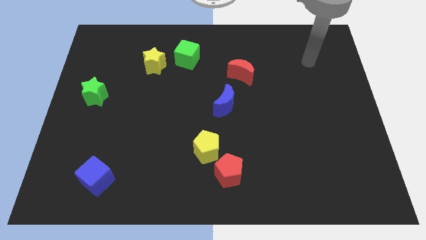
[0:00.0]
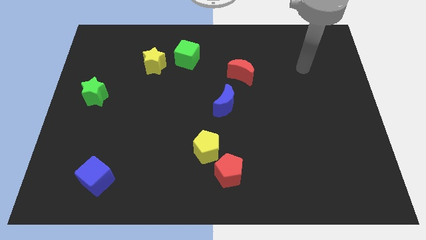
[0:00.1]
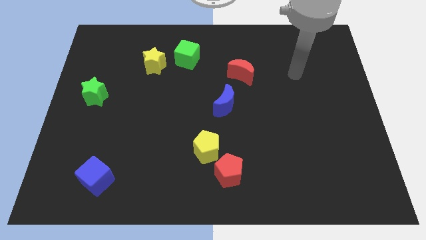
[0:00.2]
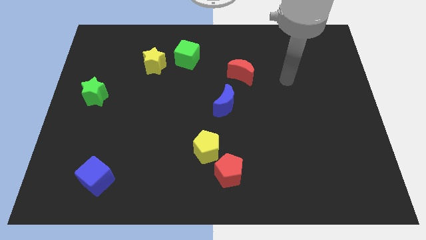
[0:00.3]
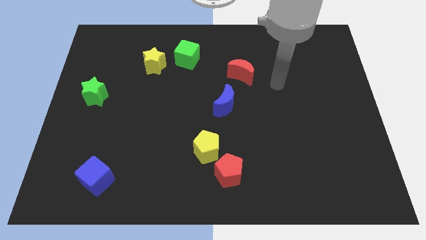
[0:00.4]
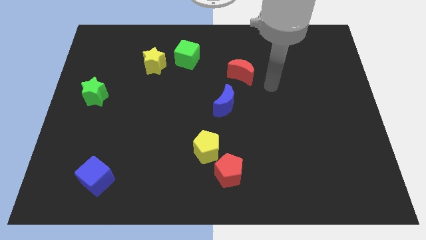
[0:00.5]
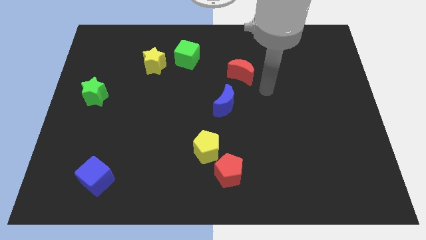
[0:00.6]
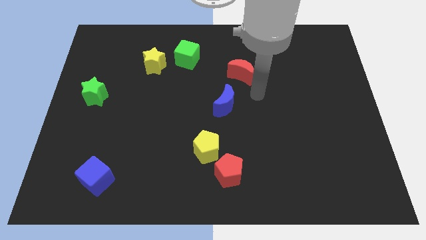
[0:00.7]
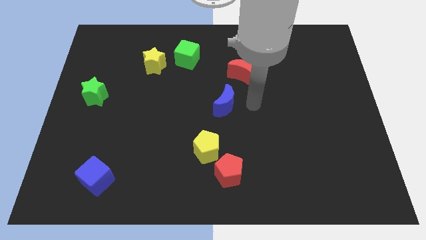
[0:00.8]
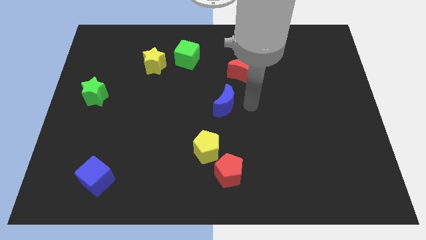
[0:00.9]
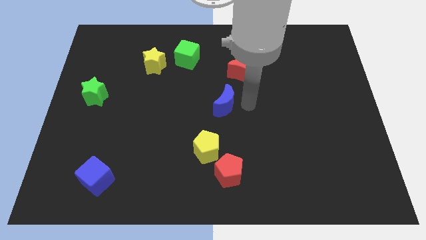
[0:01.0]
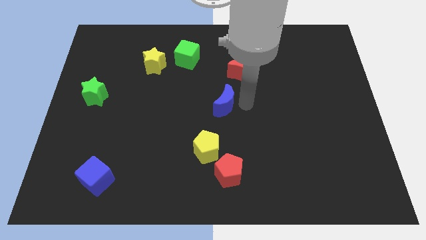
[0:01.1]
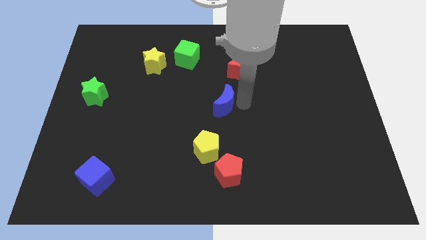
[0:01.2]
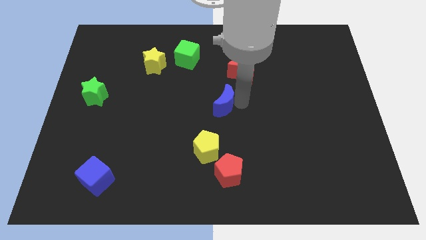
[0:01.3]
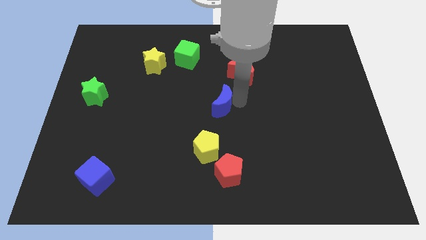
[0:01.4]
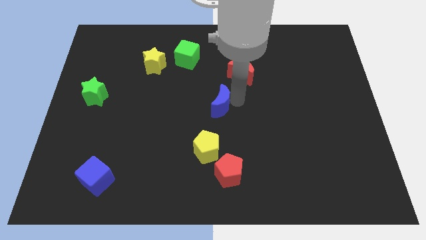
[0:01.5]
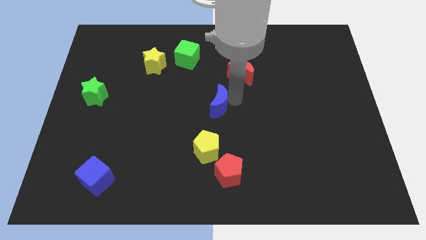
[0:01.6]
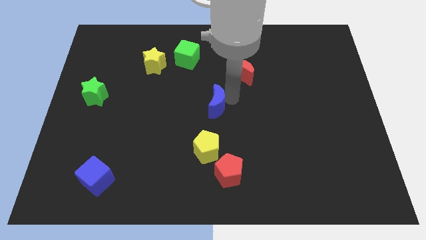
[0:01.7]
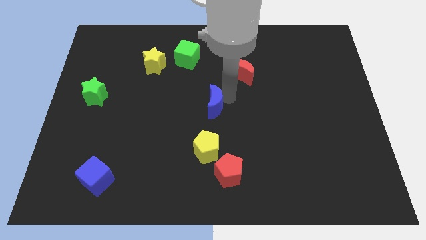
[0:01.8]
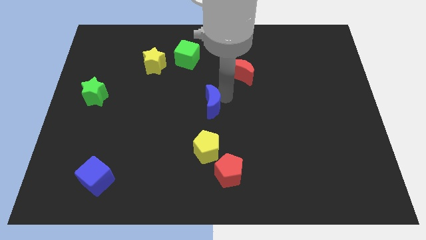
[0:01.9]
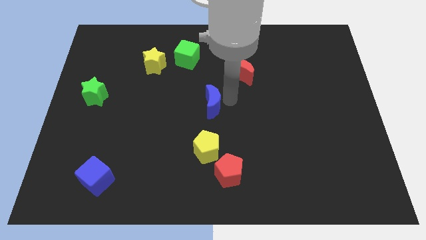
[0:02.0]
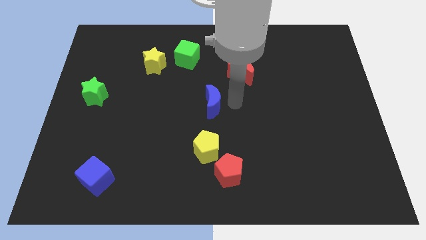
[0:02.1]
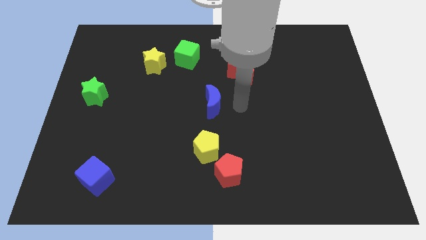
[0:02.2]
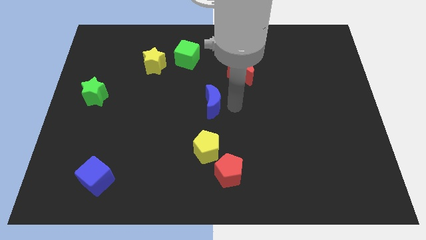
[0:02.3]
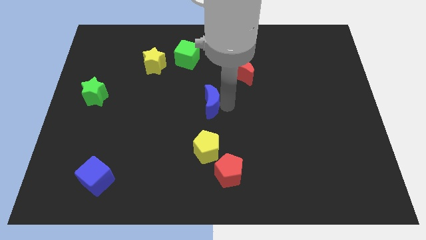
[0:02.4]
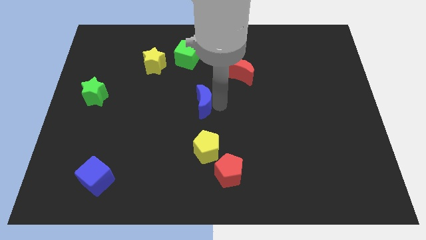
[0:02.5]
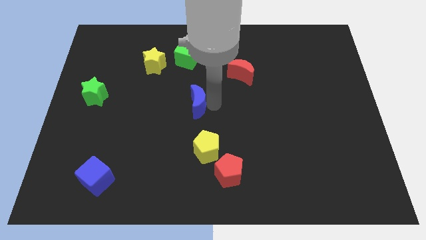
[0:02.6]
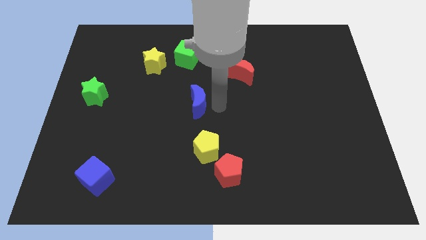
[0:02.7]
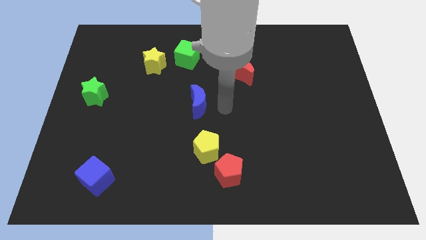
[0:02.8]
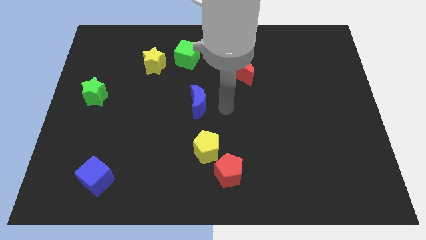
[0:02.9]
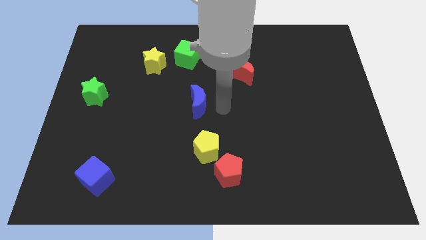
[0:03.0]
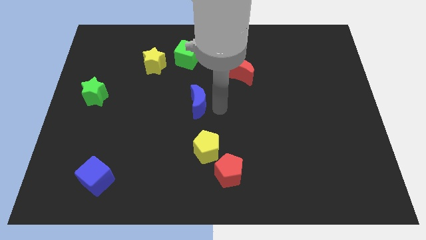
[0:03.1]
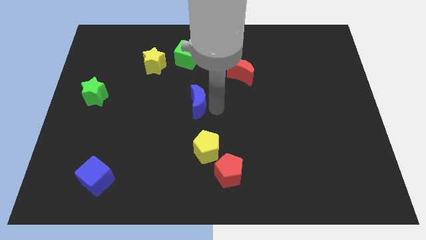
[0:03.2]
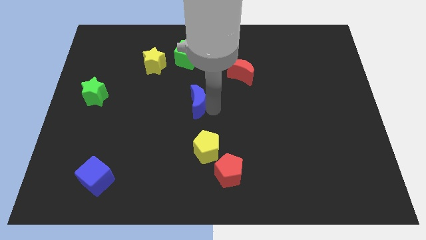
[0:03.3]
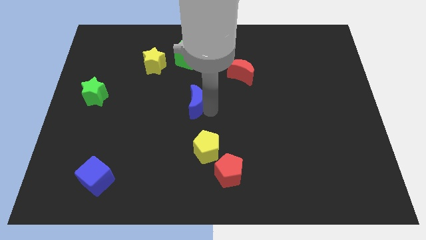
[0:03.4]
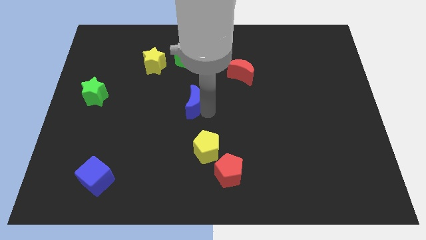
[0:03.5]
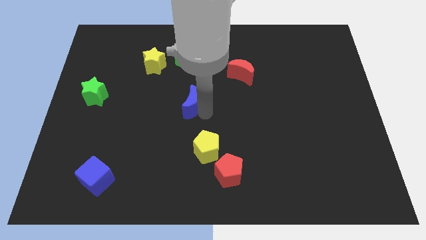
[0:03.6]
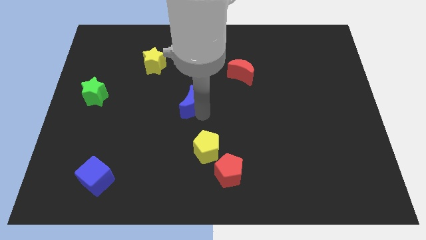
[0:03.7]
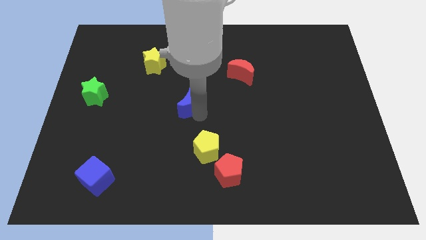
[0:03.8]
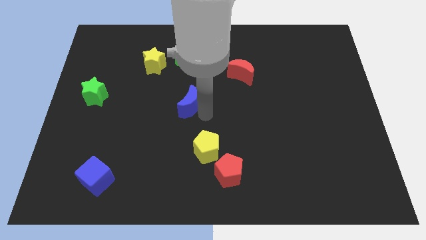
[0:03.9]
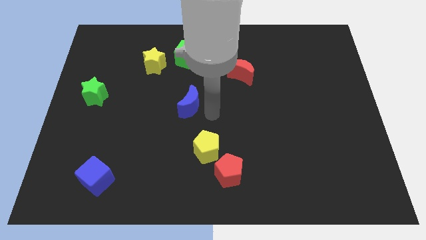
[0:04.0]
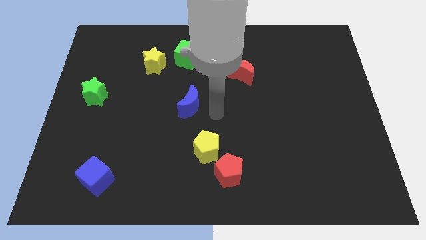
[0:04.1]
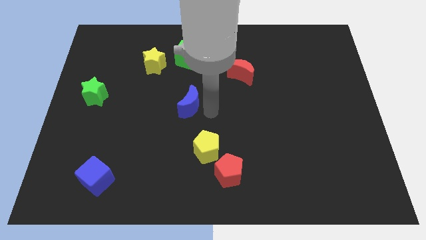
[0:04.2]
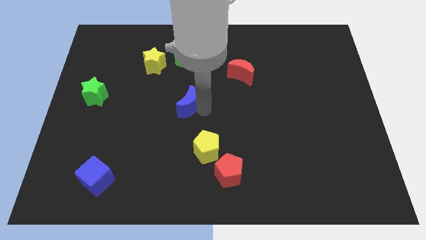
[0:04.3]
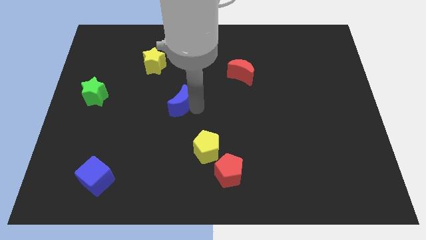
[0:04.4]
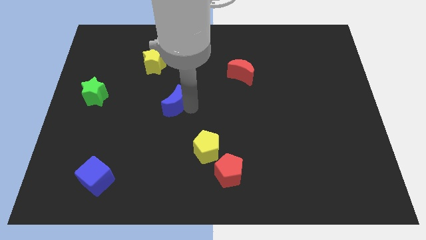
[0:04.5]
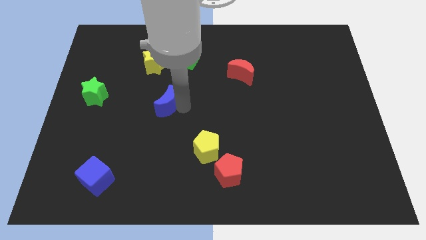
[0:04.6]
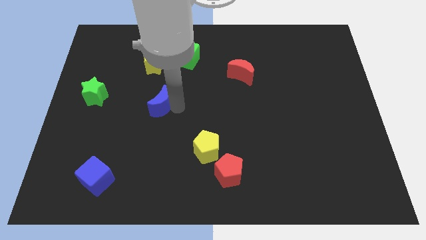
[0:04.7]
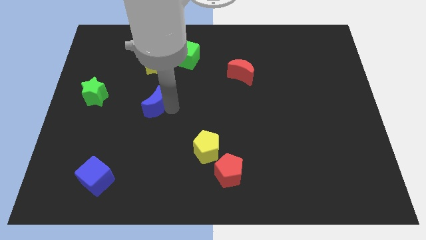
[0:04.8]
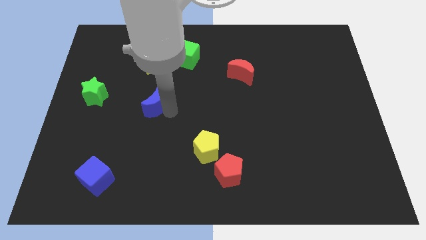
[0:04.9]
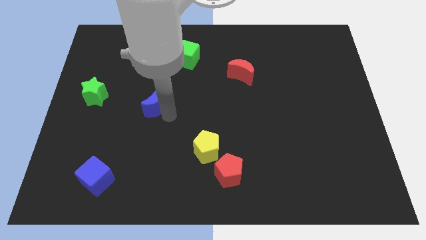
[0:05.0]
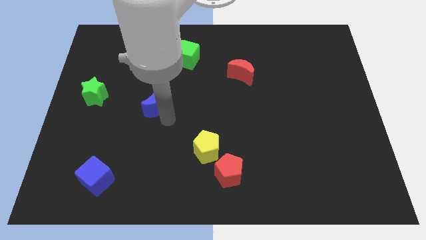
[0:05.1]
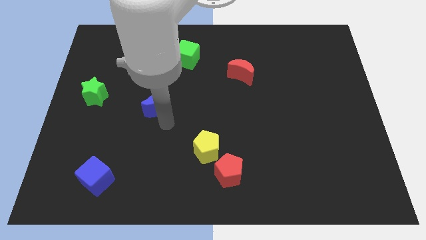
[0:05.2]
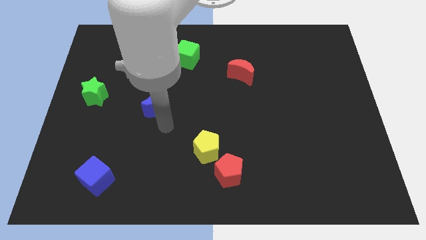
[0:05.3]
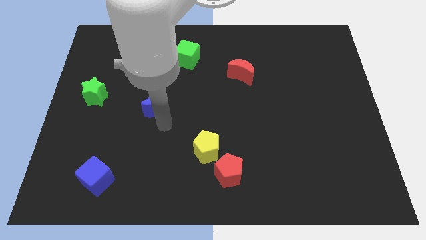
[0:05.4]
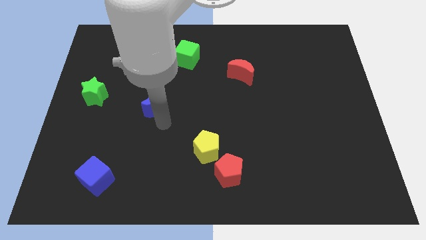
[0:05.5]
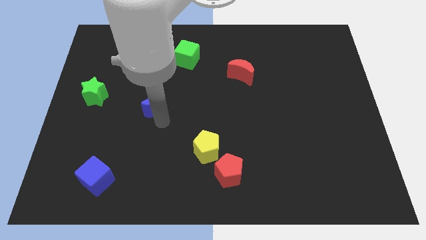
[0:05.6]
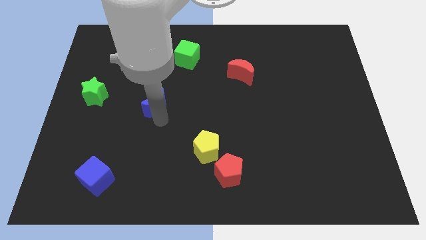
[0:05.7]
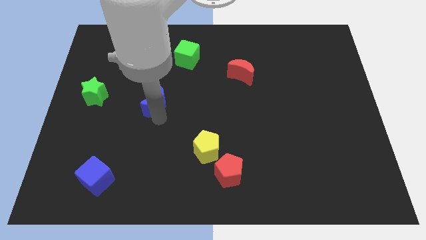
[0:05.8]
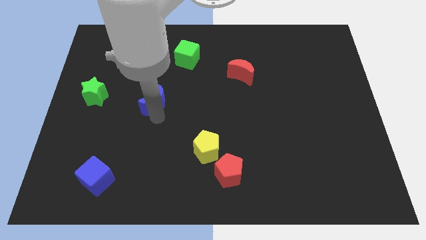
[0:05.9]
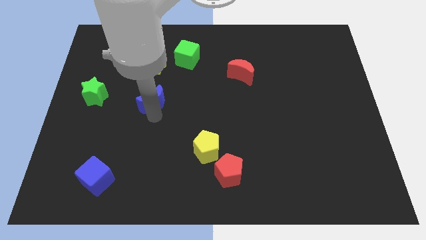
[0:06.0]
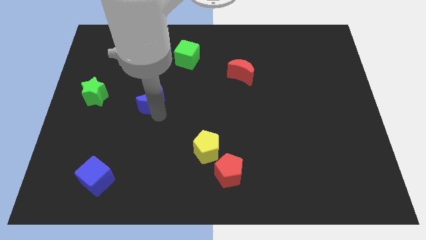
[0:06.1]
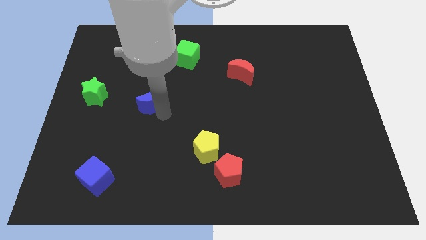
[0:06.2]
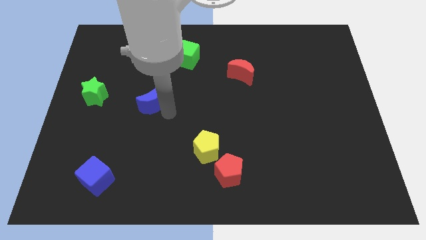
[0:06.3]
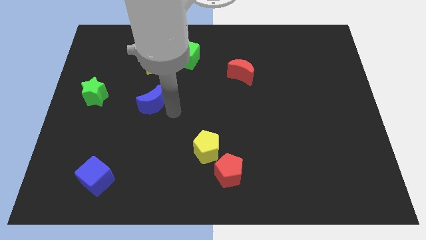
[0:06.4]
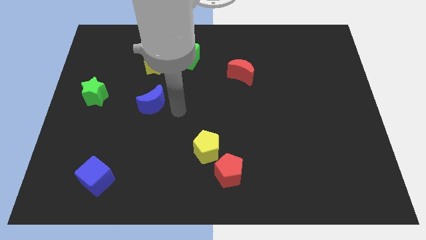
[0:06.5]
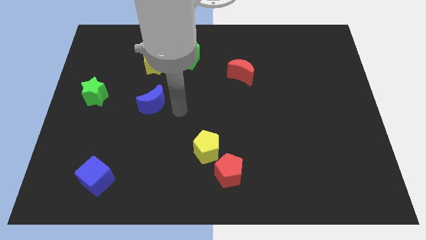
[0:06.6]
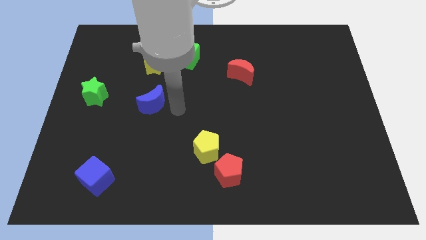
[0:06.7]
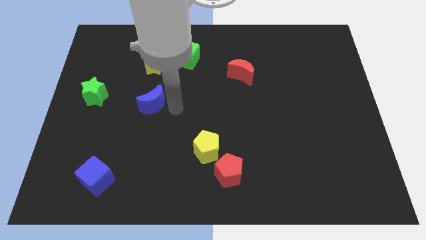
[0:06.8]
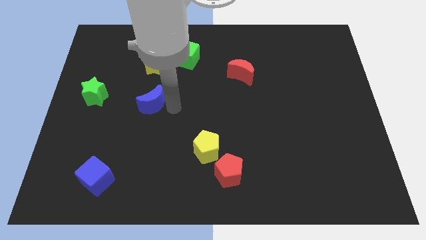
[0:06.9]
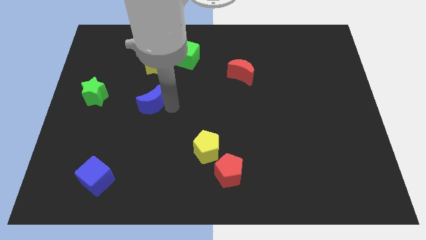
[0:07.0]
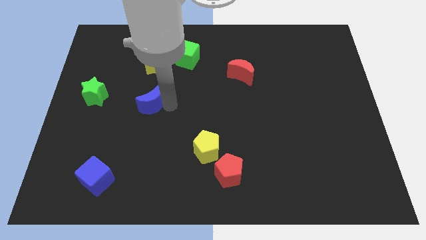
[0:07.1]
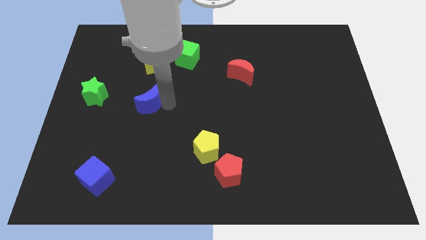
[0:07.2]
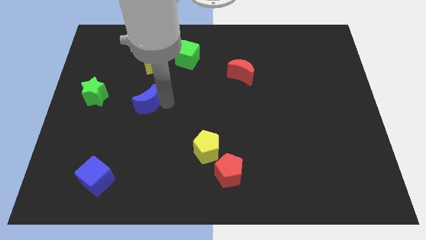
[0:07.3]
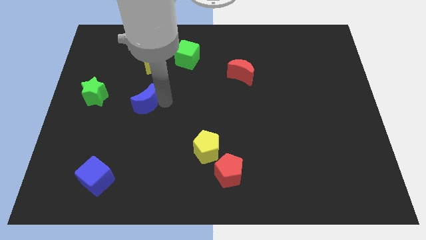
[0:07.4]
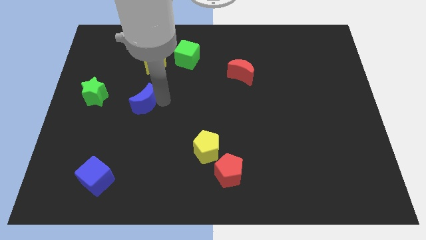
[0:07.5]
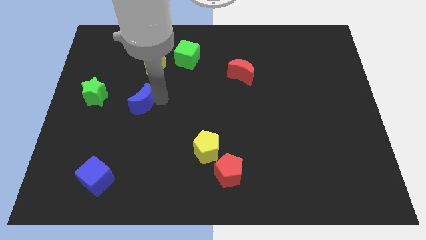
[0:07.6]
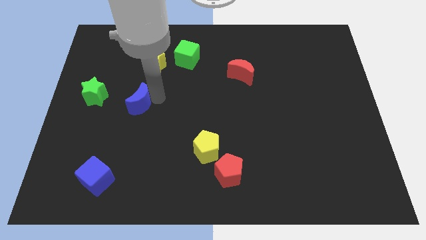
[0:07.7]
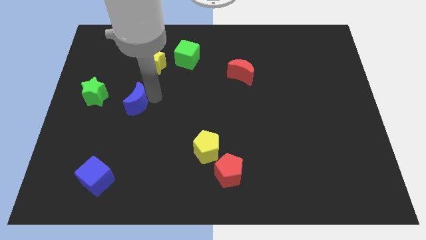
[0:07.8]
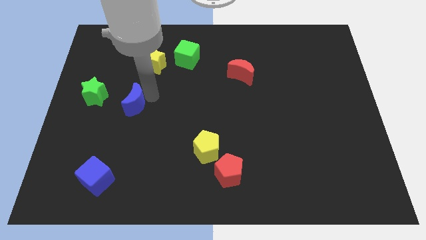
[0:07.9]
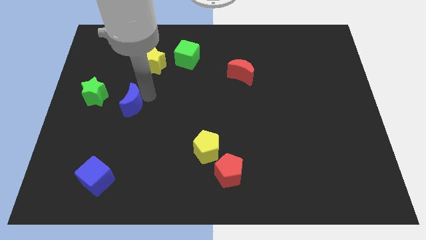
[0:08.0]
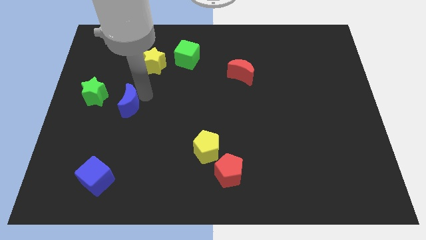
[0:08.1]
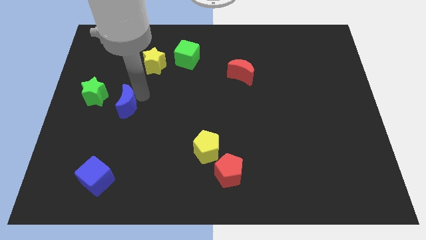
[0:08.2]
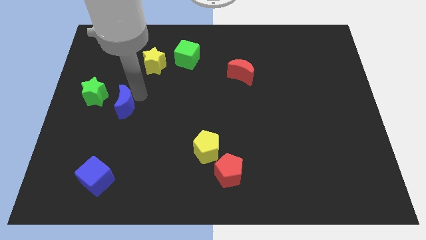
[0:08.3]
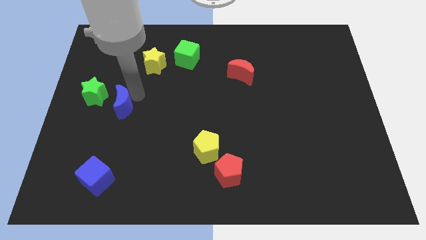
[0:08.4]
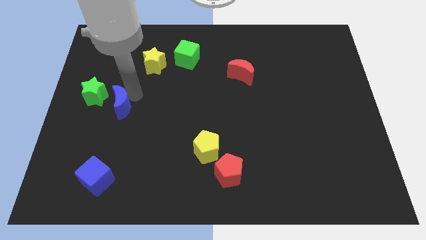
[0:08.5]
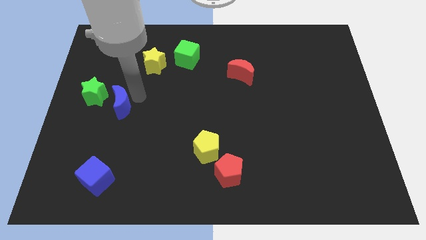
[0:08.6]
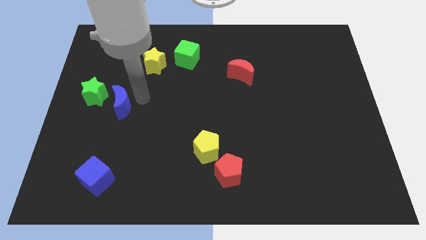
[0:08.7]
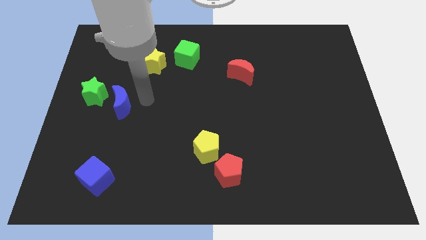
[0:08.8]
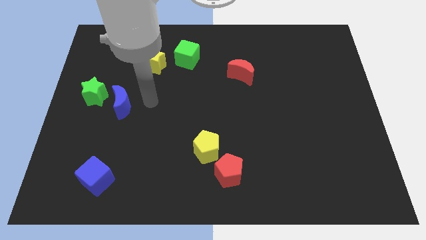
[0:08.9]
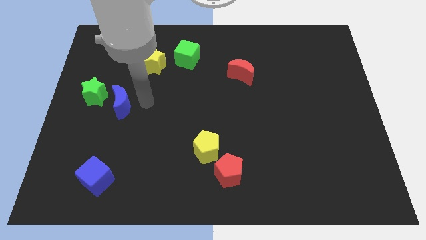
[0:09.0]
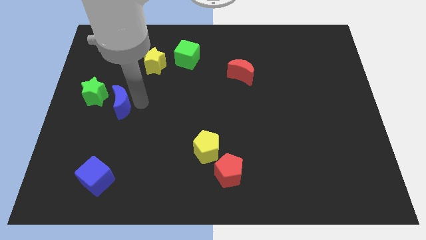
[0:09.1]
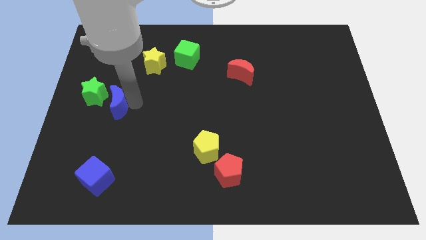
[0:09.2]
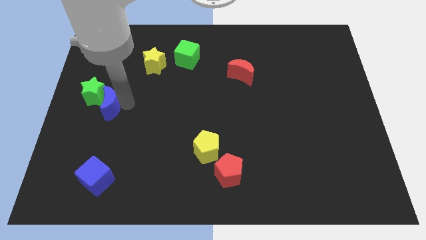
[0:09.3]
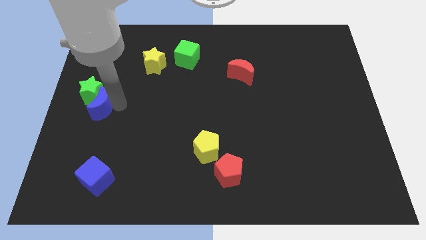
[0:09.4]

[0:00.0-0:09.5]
push the blue moon to the left side
